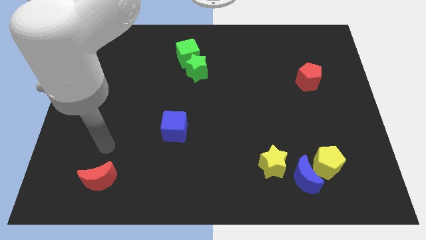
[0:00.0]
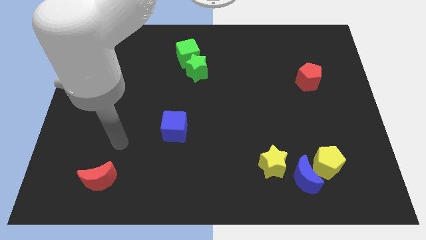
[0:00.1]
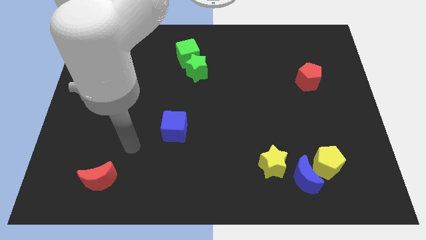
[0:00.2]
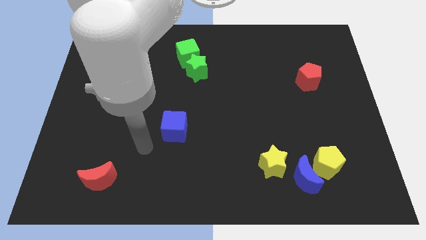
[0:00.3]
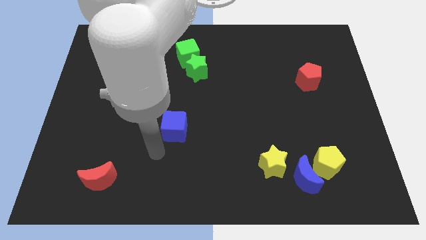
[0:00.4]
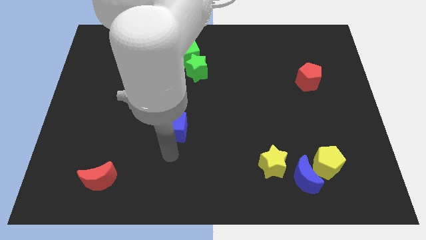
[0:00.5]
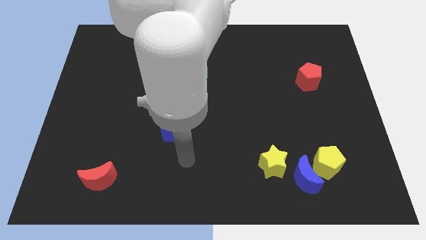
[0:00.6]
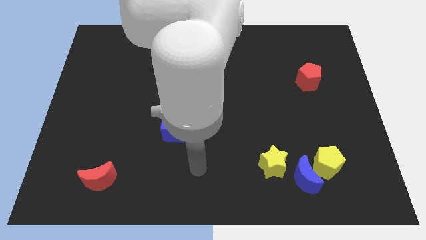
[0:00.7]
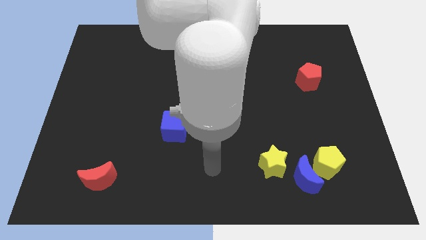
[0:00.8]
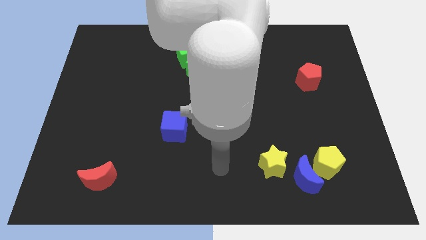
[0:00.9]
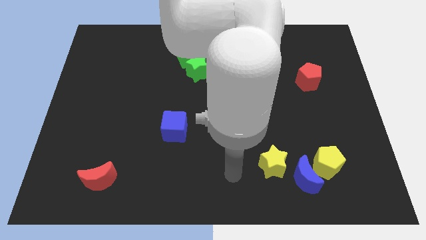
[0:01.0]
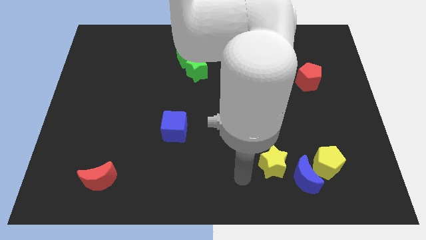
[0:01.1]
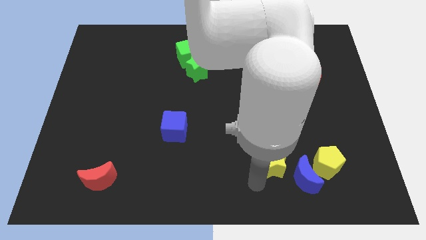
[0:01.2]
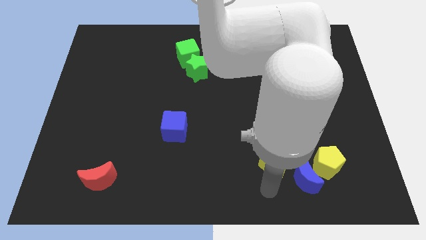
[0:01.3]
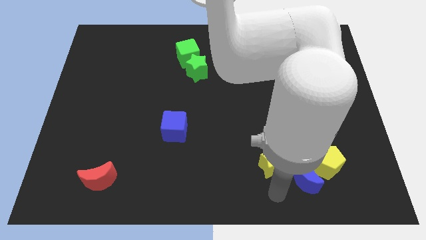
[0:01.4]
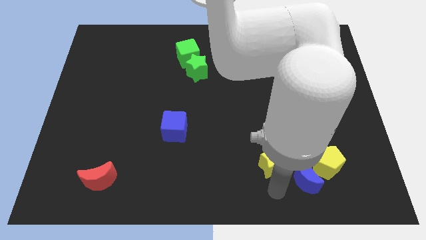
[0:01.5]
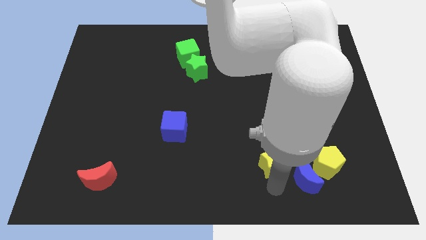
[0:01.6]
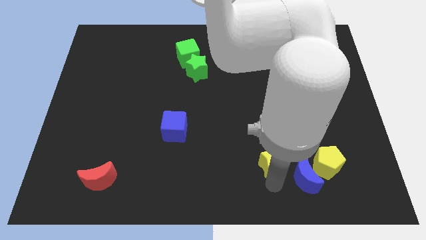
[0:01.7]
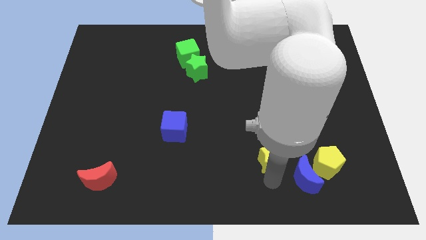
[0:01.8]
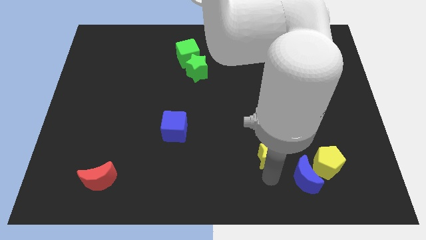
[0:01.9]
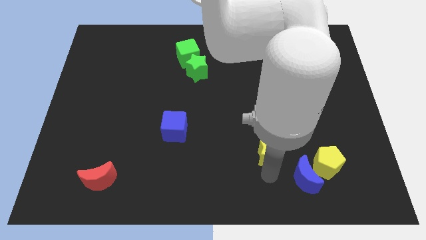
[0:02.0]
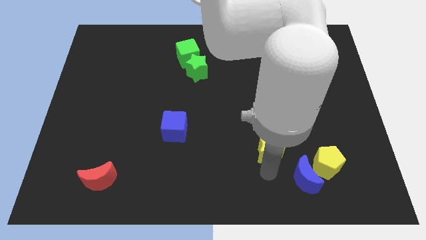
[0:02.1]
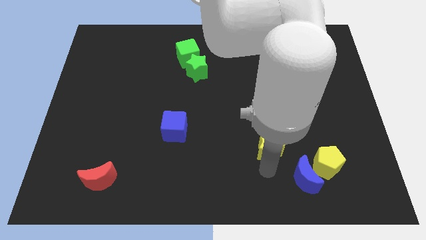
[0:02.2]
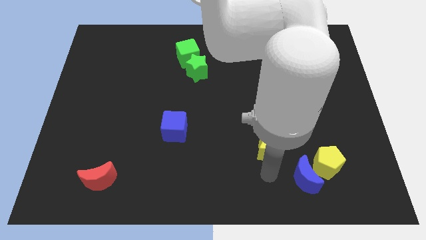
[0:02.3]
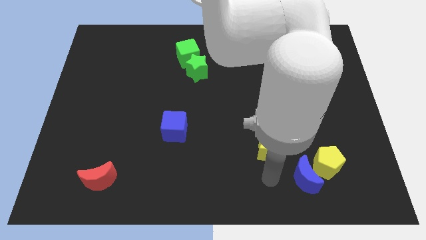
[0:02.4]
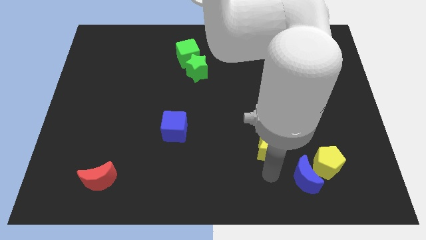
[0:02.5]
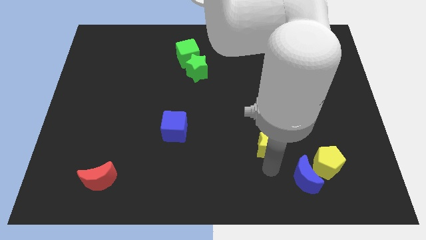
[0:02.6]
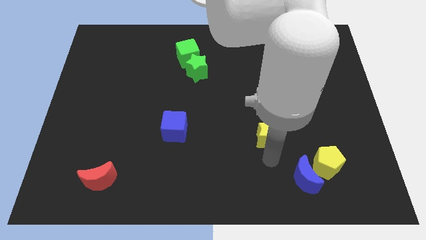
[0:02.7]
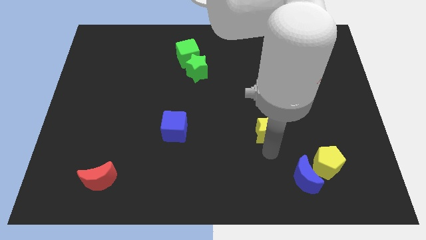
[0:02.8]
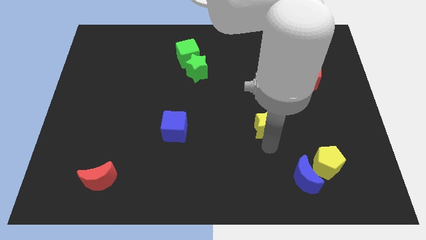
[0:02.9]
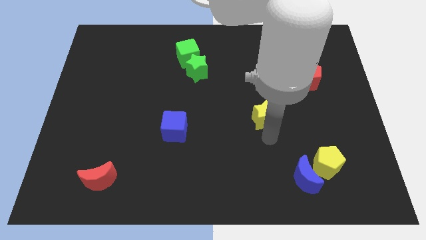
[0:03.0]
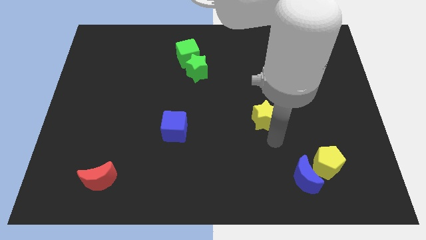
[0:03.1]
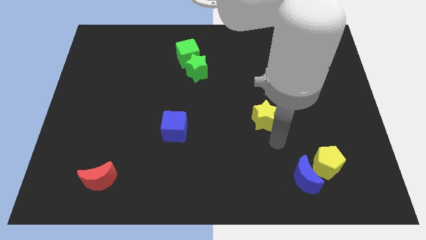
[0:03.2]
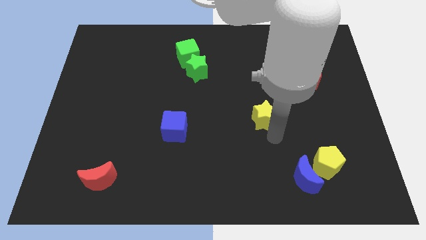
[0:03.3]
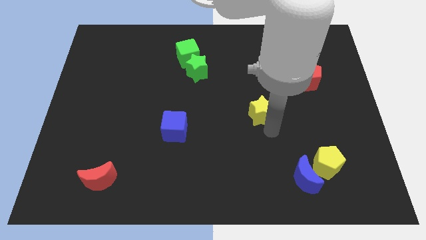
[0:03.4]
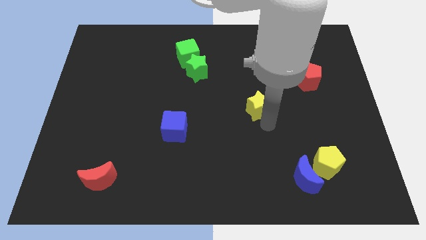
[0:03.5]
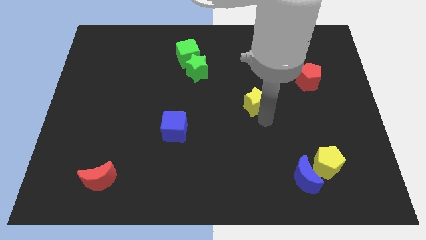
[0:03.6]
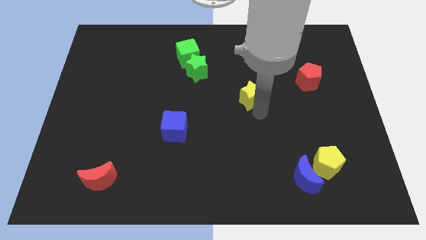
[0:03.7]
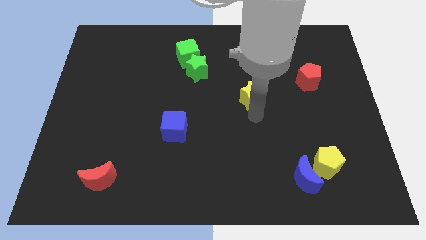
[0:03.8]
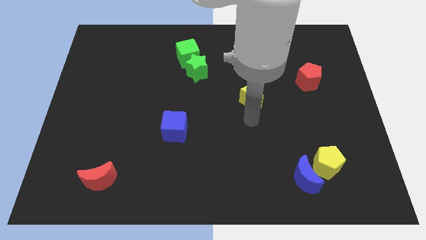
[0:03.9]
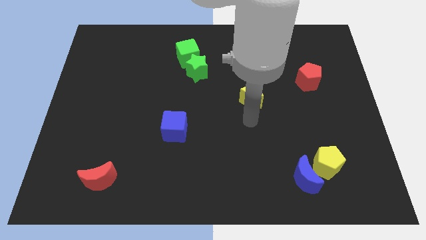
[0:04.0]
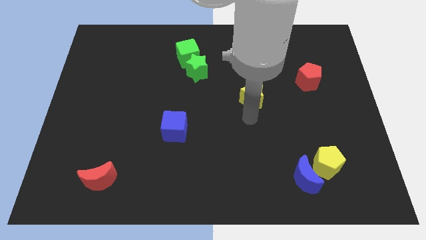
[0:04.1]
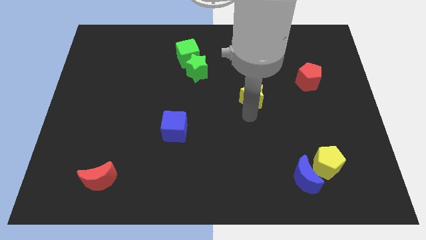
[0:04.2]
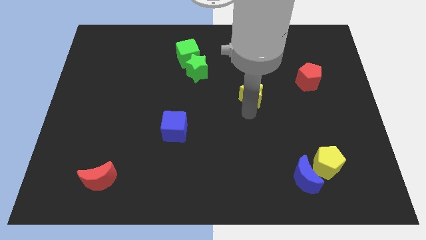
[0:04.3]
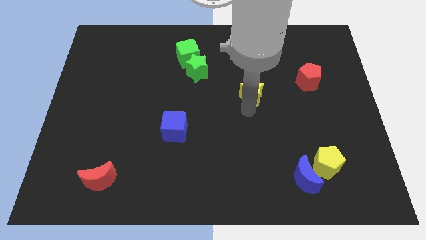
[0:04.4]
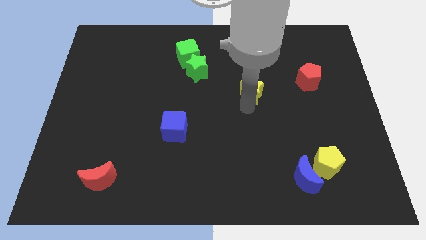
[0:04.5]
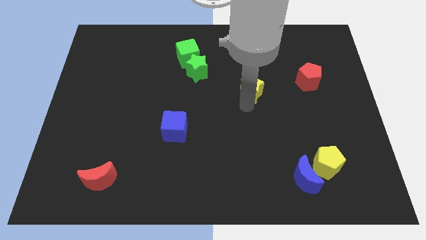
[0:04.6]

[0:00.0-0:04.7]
move the yellow star up

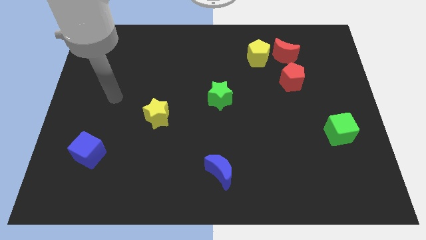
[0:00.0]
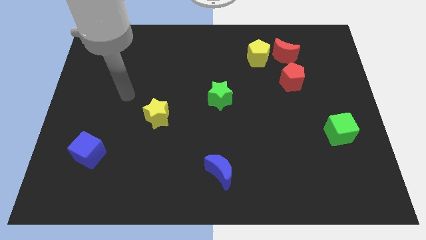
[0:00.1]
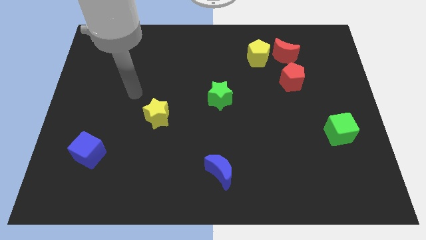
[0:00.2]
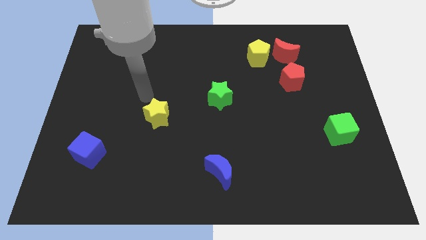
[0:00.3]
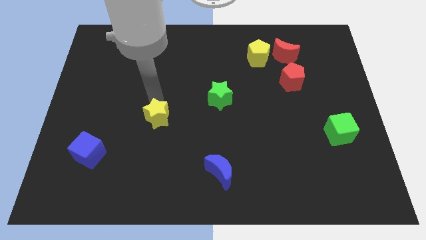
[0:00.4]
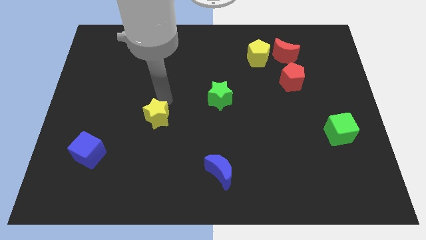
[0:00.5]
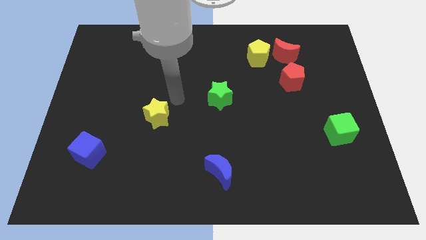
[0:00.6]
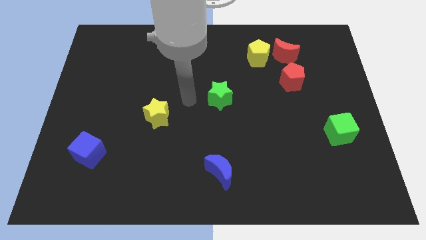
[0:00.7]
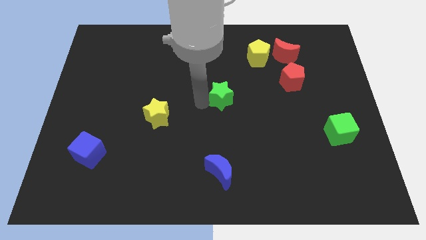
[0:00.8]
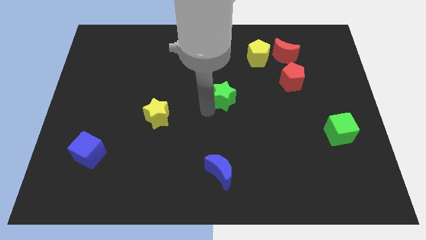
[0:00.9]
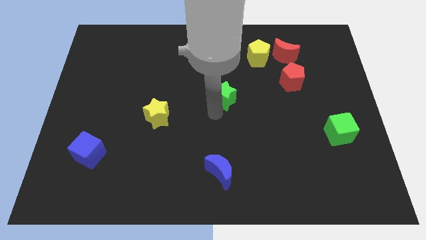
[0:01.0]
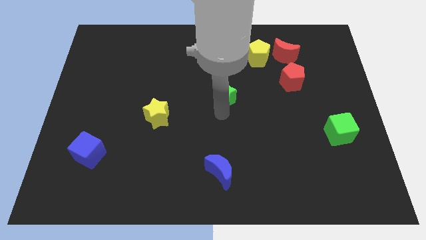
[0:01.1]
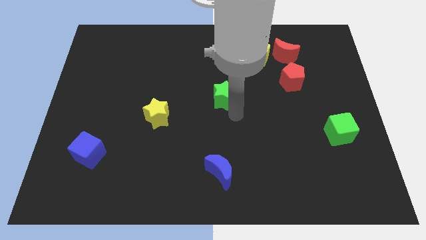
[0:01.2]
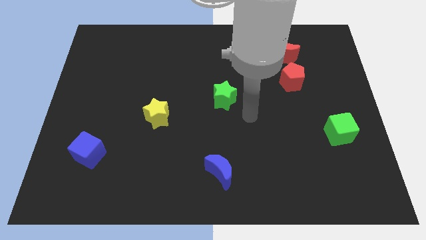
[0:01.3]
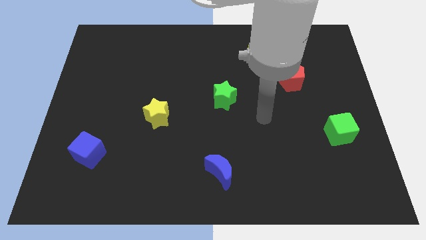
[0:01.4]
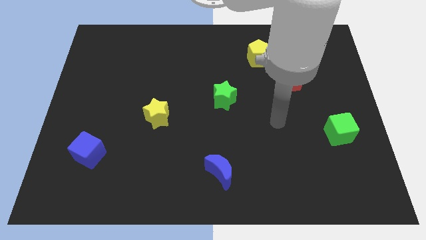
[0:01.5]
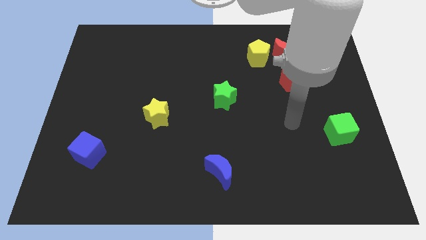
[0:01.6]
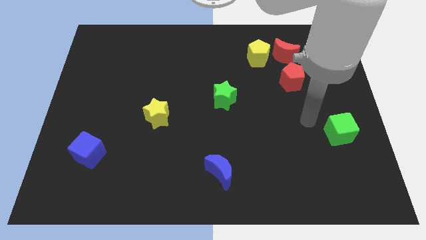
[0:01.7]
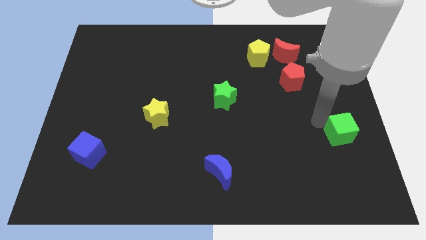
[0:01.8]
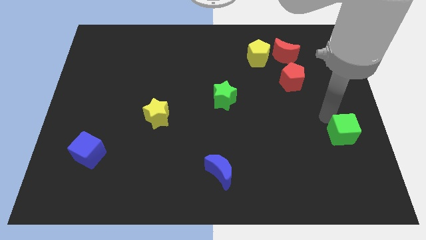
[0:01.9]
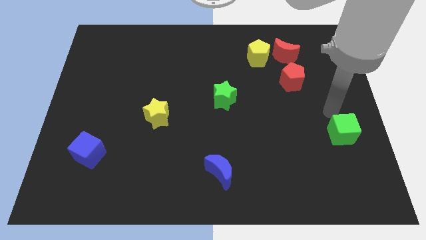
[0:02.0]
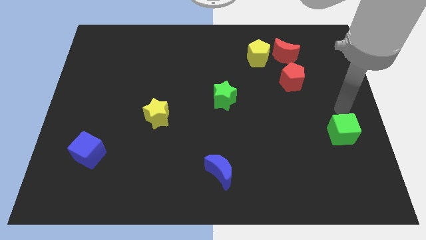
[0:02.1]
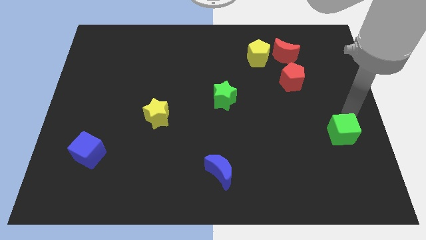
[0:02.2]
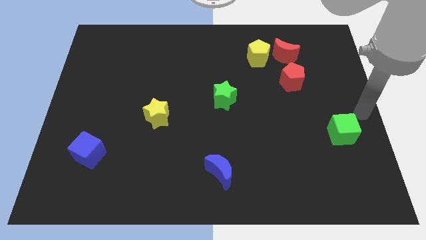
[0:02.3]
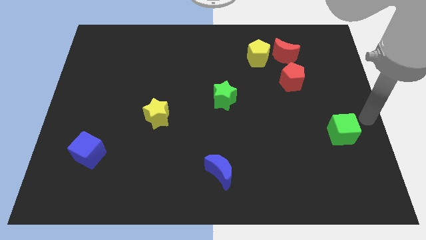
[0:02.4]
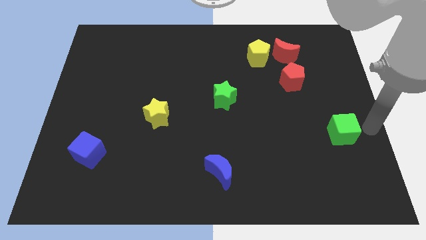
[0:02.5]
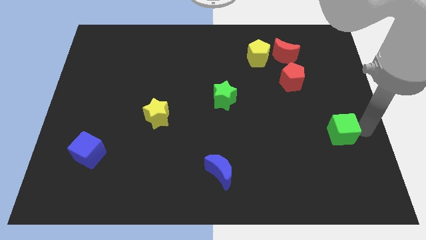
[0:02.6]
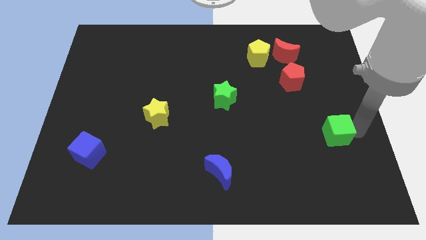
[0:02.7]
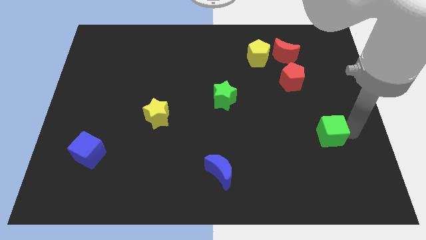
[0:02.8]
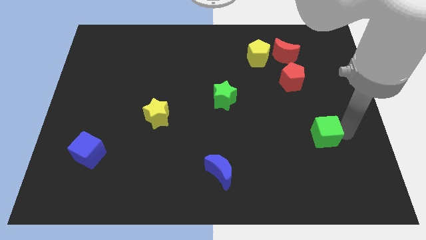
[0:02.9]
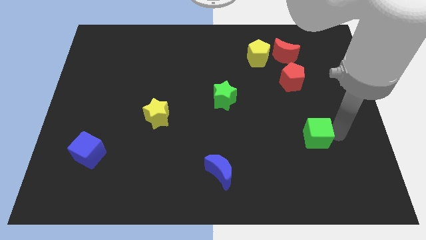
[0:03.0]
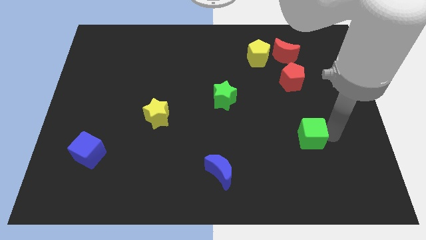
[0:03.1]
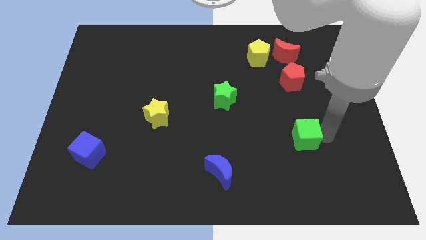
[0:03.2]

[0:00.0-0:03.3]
push the green cube left a little bit

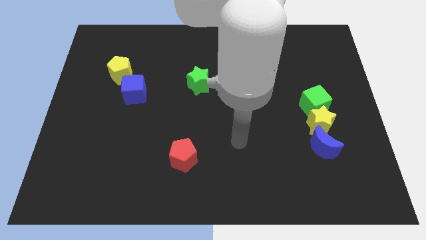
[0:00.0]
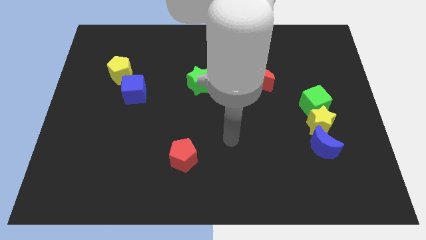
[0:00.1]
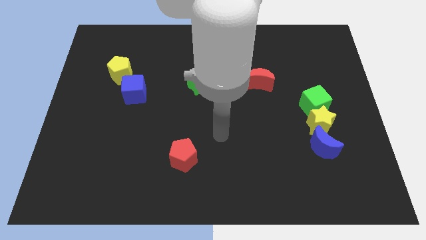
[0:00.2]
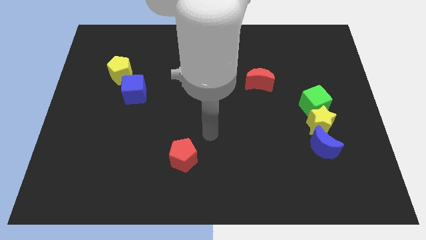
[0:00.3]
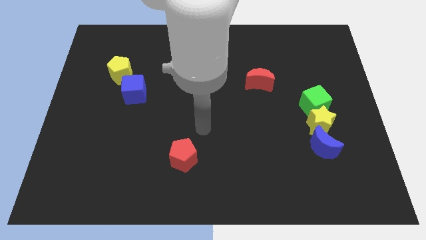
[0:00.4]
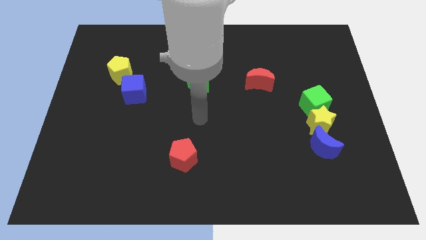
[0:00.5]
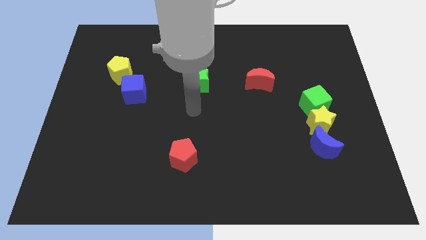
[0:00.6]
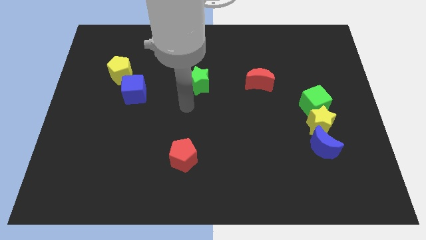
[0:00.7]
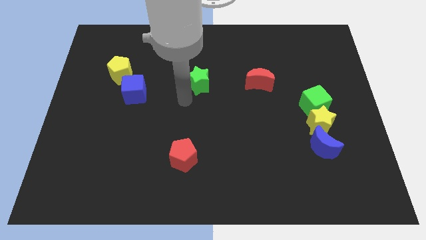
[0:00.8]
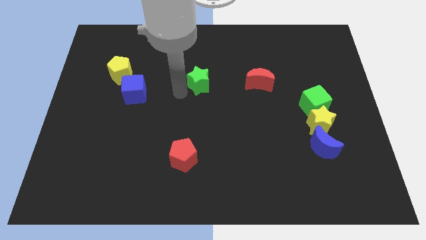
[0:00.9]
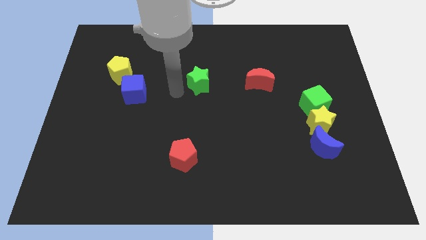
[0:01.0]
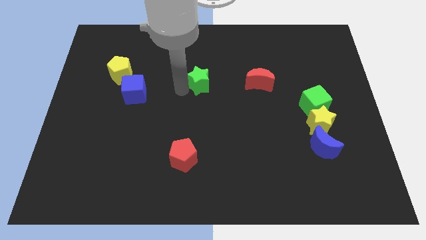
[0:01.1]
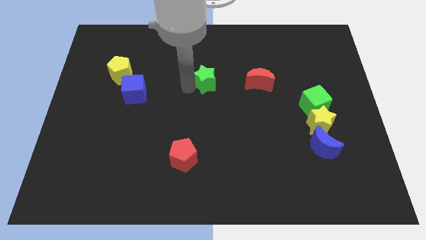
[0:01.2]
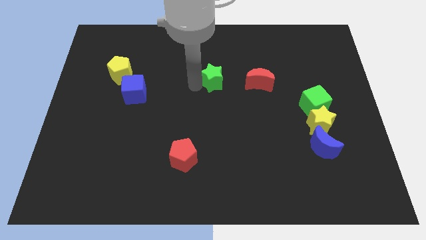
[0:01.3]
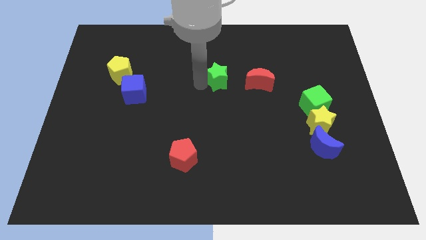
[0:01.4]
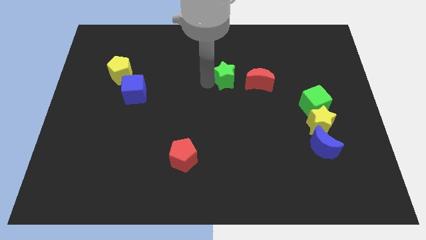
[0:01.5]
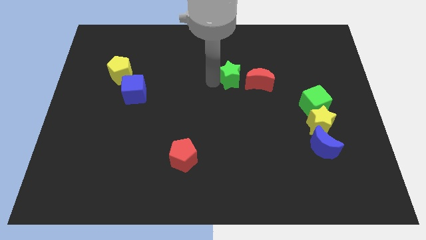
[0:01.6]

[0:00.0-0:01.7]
slide the green star somewhat to the right
